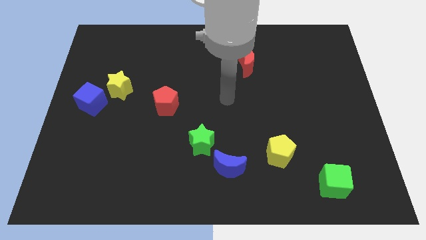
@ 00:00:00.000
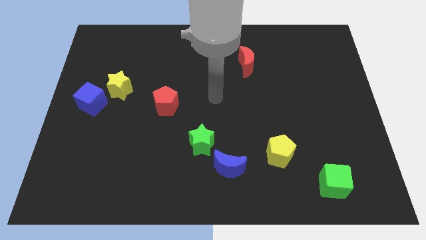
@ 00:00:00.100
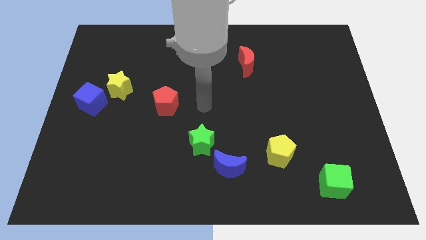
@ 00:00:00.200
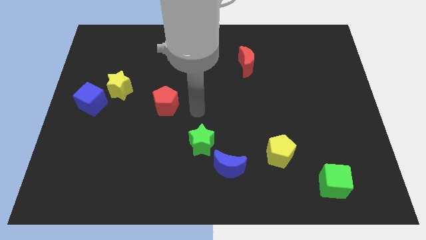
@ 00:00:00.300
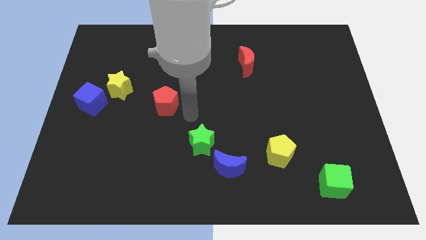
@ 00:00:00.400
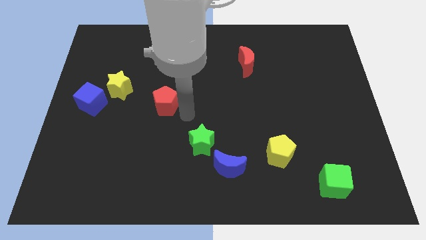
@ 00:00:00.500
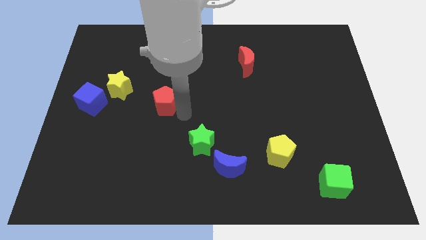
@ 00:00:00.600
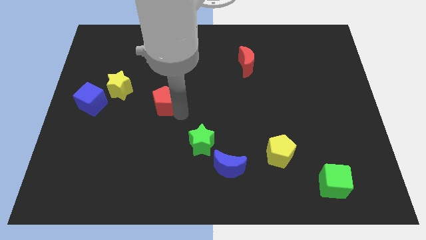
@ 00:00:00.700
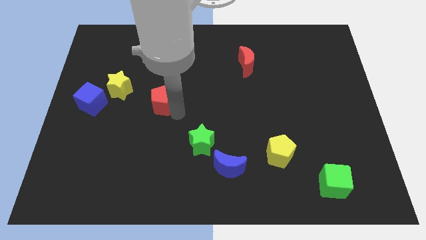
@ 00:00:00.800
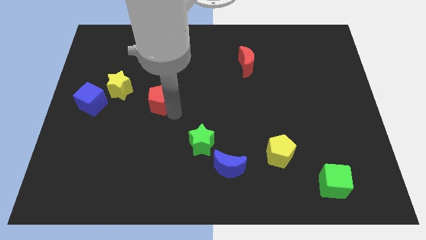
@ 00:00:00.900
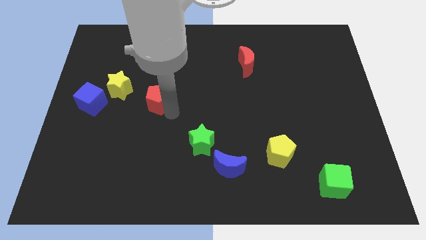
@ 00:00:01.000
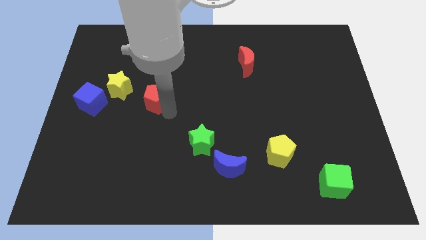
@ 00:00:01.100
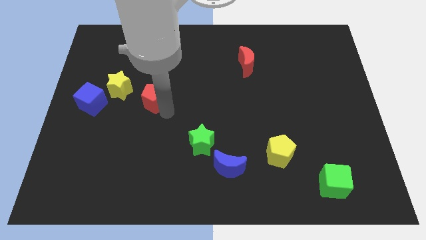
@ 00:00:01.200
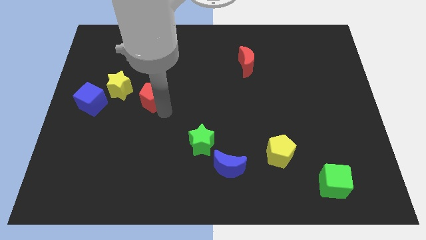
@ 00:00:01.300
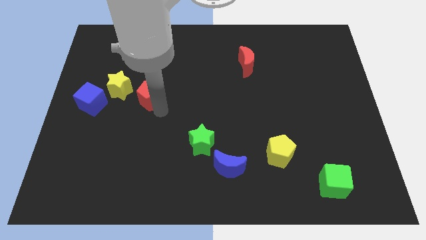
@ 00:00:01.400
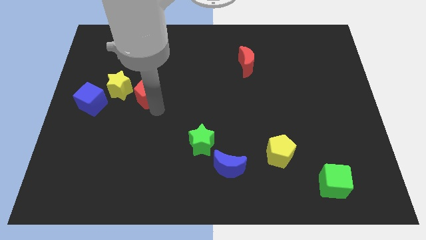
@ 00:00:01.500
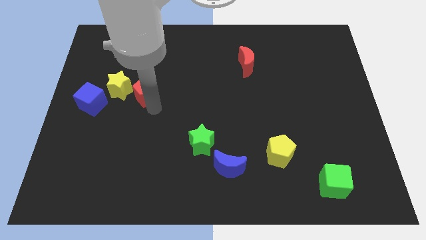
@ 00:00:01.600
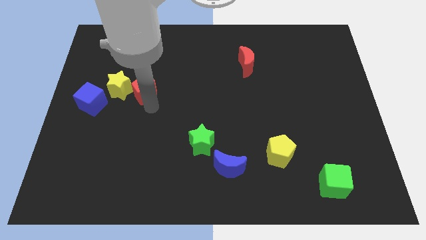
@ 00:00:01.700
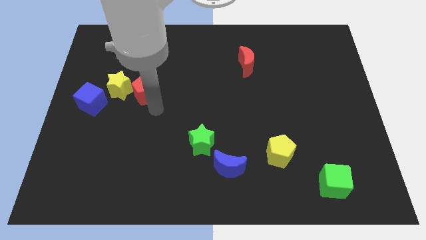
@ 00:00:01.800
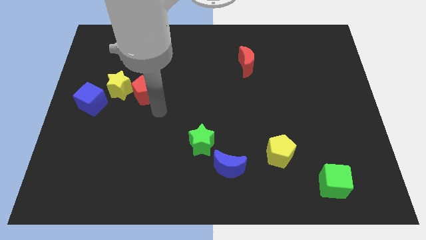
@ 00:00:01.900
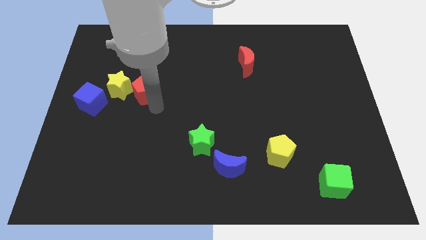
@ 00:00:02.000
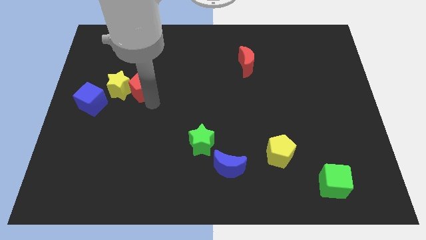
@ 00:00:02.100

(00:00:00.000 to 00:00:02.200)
move the red pentagon upwards and then left a little bit

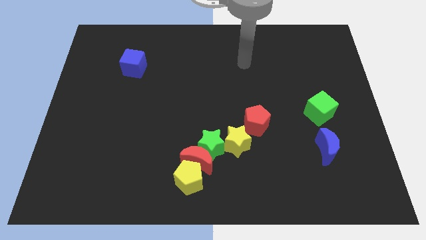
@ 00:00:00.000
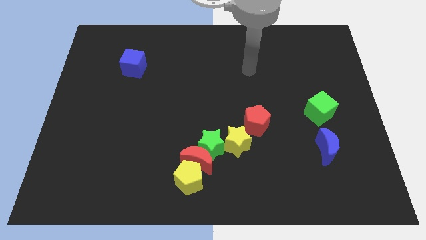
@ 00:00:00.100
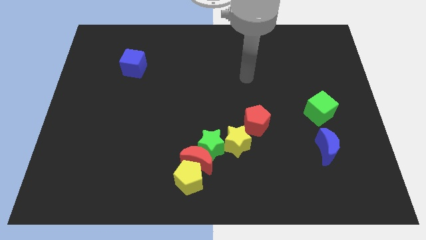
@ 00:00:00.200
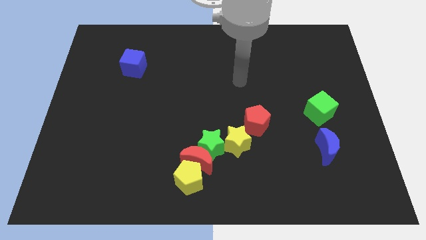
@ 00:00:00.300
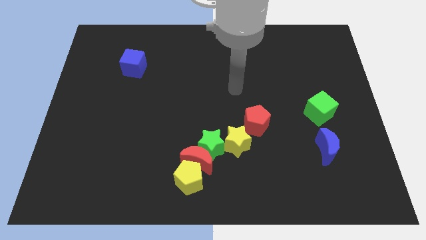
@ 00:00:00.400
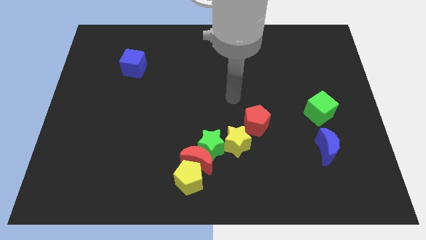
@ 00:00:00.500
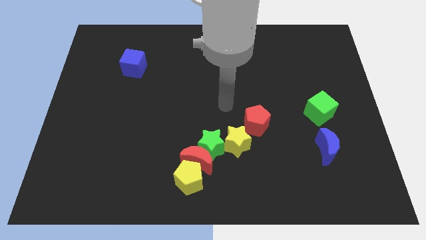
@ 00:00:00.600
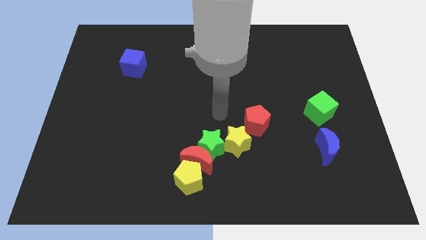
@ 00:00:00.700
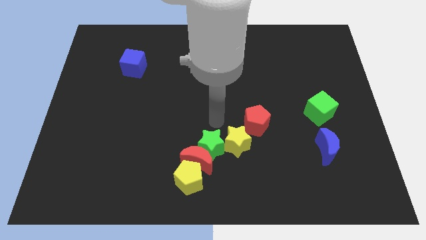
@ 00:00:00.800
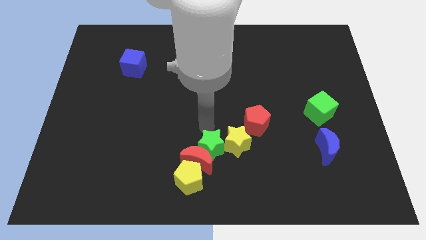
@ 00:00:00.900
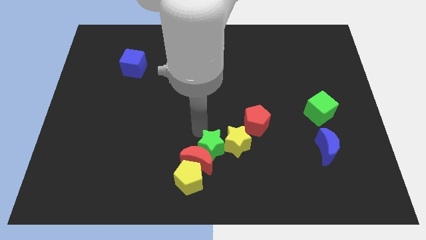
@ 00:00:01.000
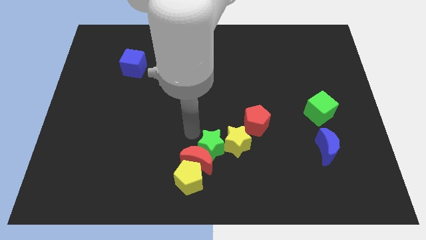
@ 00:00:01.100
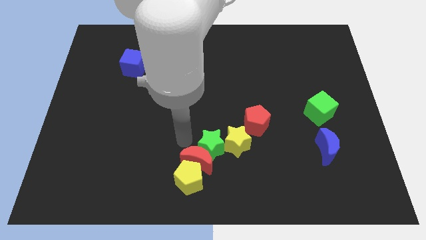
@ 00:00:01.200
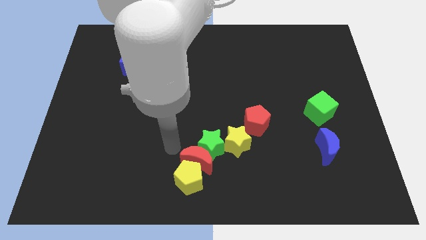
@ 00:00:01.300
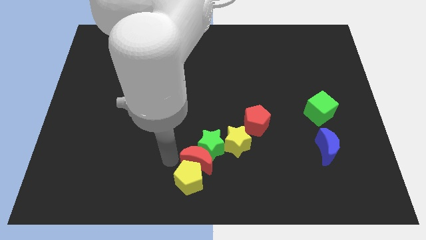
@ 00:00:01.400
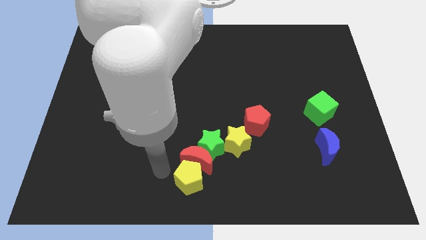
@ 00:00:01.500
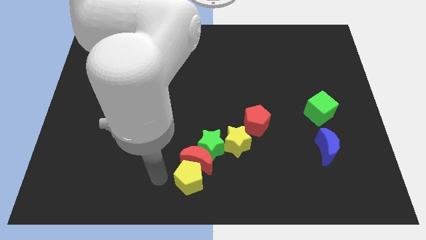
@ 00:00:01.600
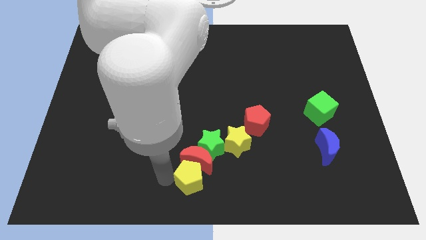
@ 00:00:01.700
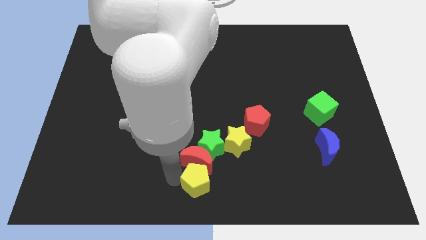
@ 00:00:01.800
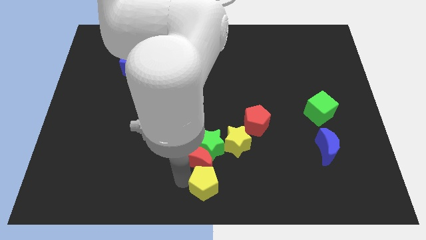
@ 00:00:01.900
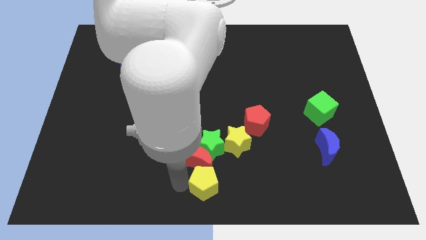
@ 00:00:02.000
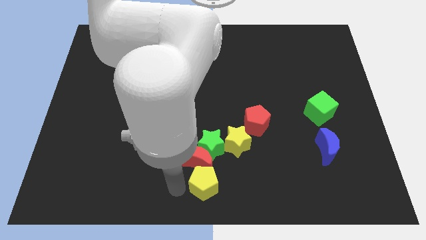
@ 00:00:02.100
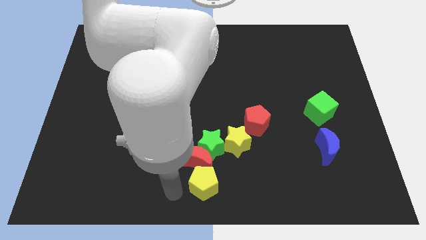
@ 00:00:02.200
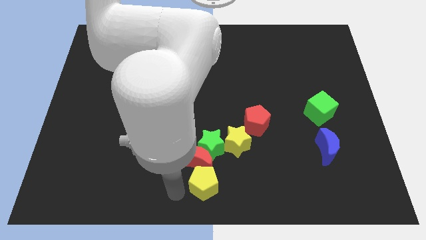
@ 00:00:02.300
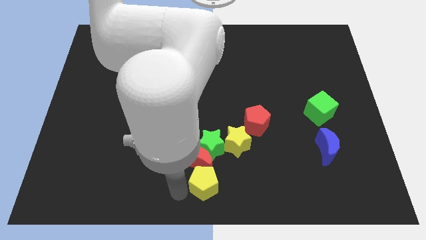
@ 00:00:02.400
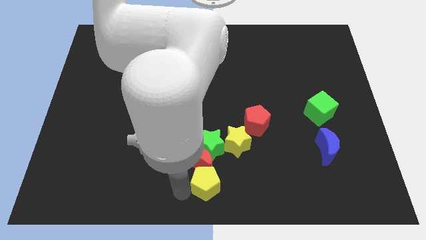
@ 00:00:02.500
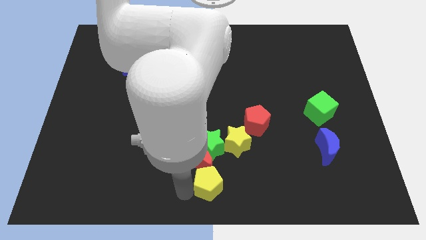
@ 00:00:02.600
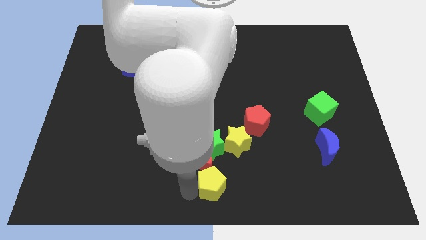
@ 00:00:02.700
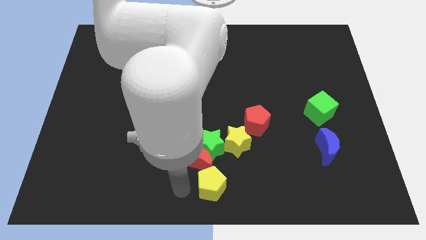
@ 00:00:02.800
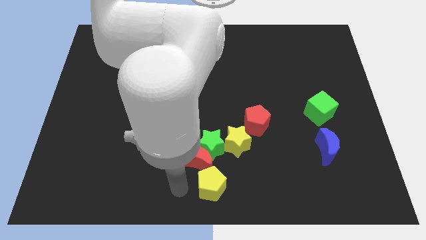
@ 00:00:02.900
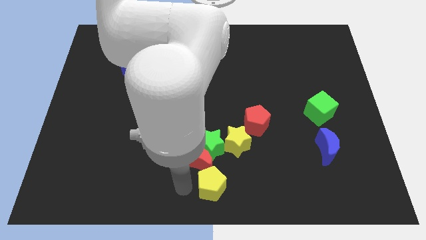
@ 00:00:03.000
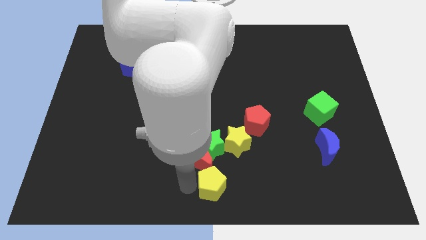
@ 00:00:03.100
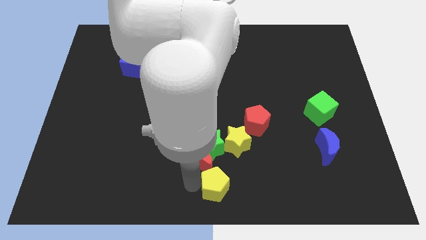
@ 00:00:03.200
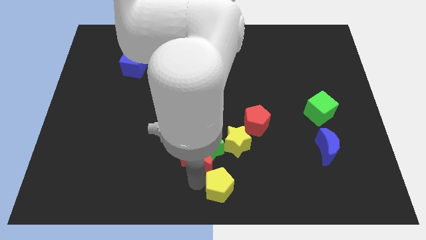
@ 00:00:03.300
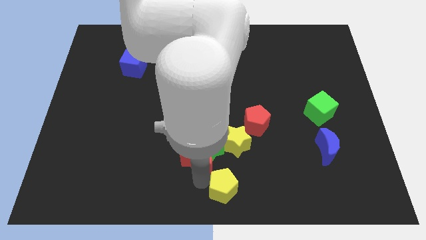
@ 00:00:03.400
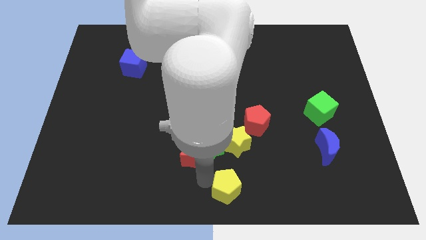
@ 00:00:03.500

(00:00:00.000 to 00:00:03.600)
slightly move the yellow pentagon right

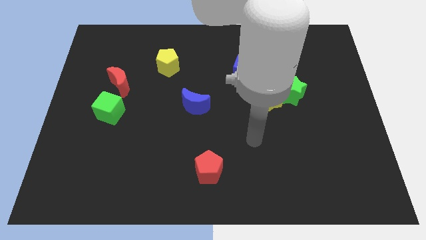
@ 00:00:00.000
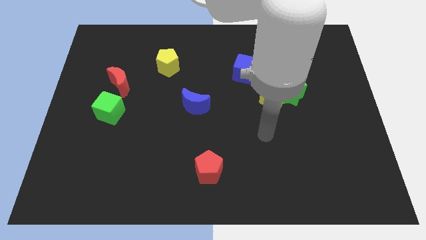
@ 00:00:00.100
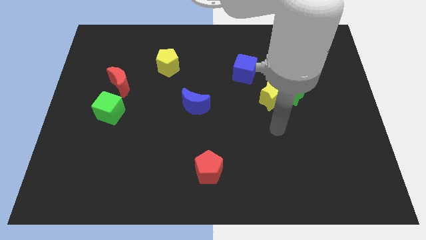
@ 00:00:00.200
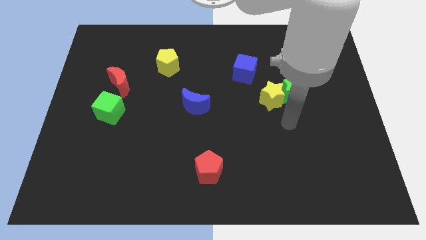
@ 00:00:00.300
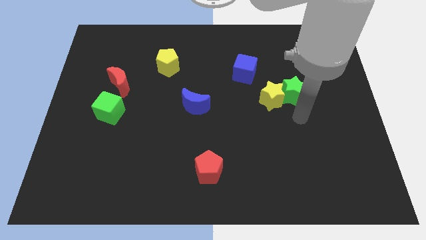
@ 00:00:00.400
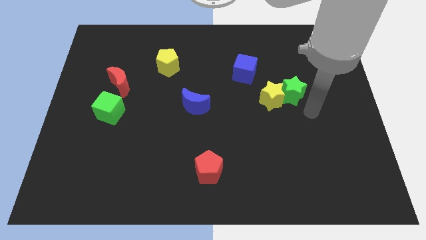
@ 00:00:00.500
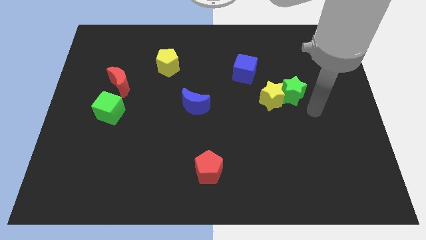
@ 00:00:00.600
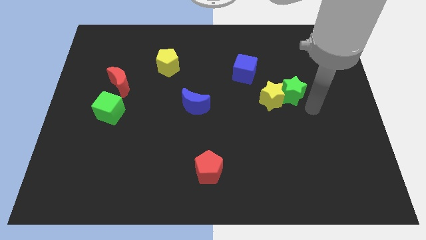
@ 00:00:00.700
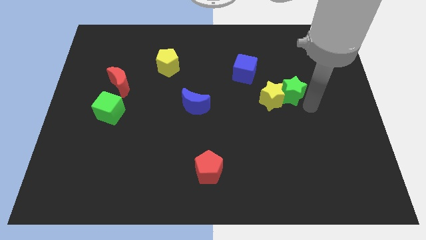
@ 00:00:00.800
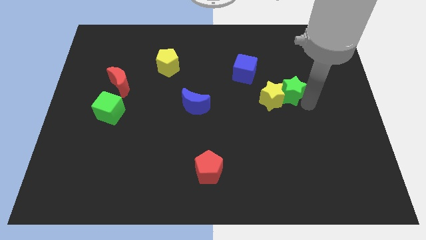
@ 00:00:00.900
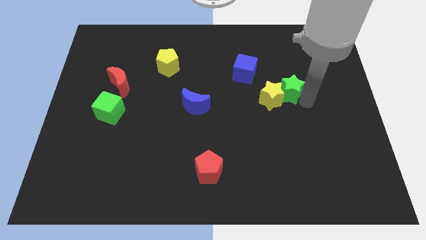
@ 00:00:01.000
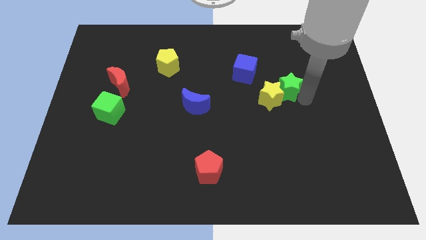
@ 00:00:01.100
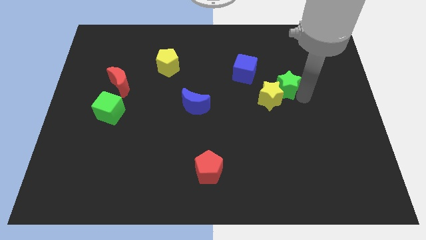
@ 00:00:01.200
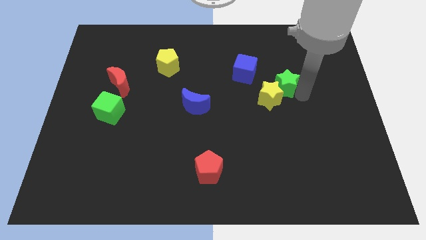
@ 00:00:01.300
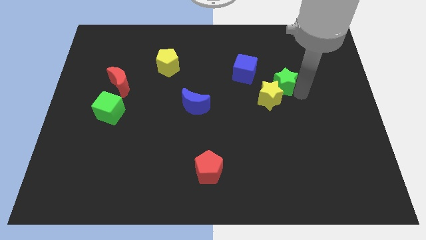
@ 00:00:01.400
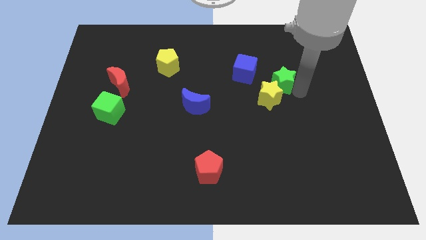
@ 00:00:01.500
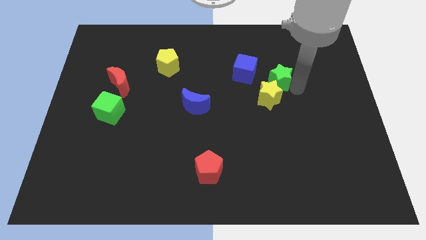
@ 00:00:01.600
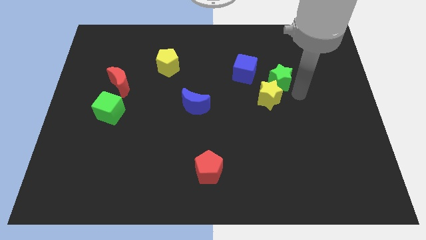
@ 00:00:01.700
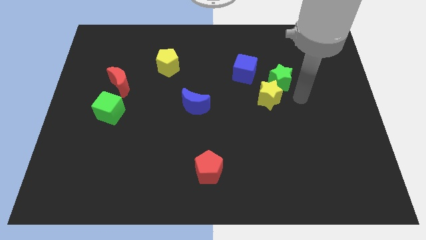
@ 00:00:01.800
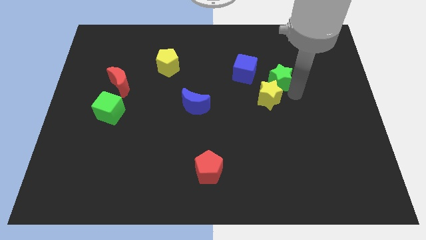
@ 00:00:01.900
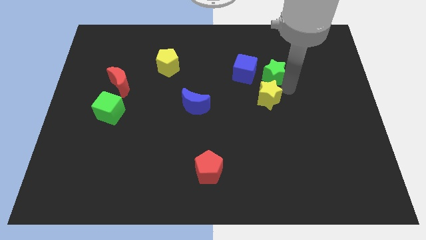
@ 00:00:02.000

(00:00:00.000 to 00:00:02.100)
slightly push the green star up and to the left
